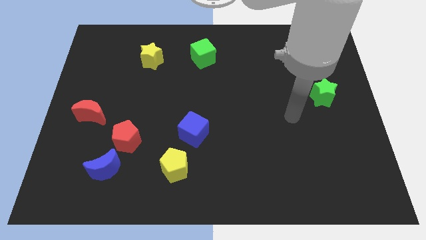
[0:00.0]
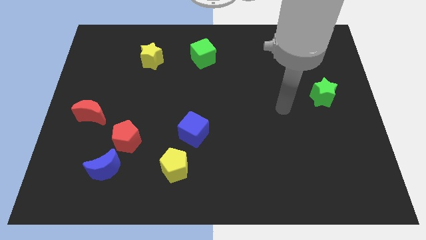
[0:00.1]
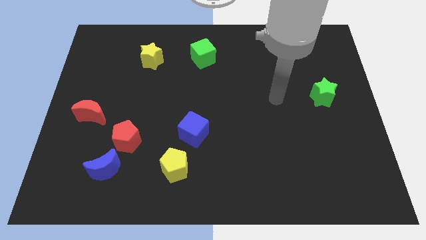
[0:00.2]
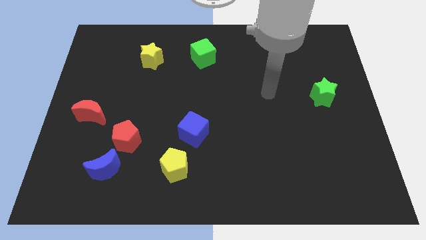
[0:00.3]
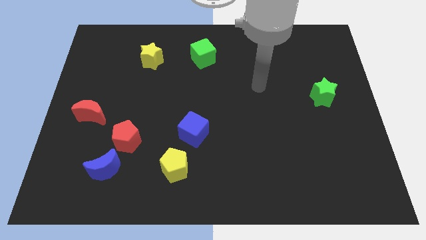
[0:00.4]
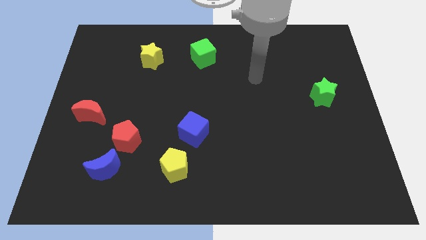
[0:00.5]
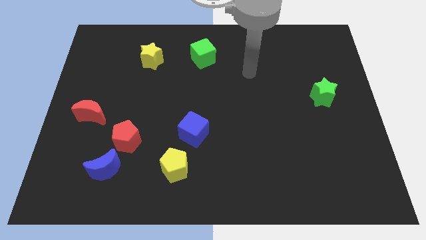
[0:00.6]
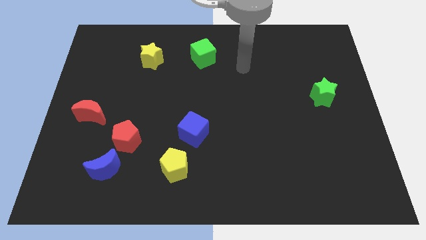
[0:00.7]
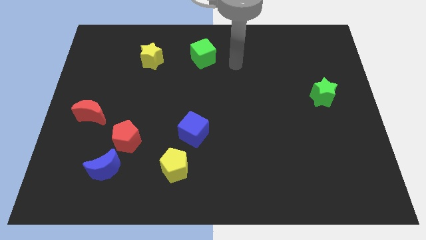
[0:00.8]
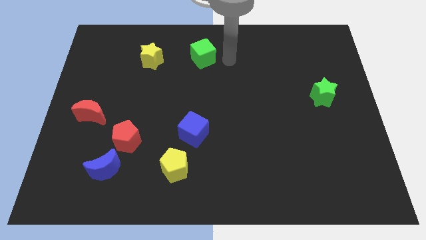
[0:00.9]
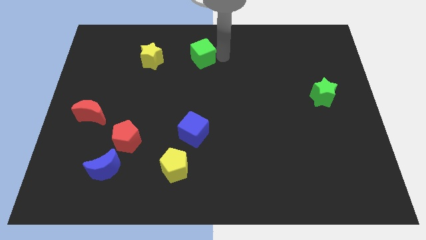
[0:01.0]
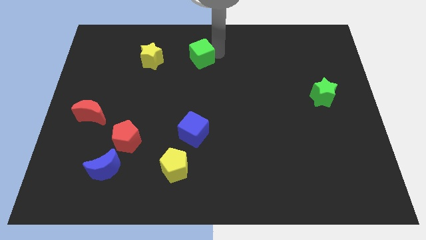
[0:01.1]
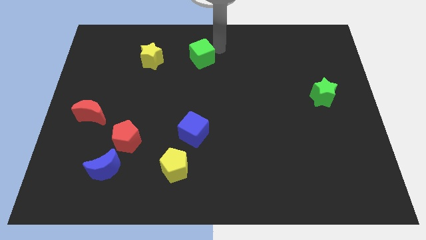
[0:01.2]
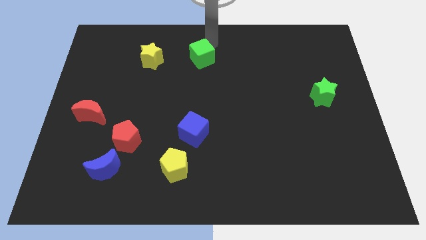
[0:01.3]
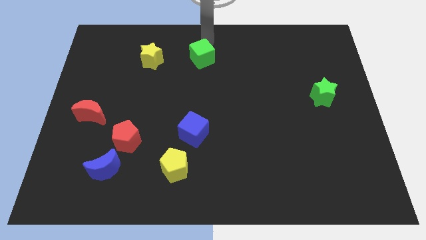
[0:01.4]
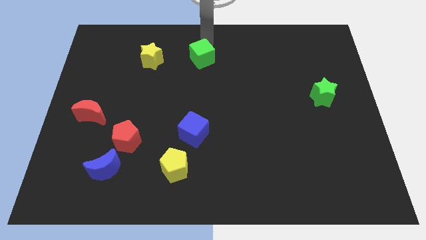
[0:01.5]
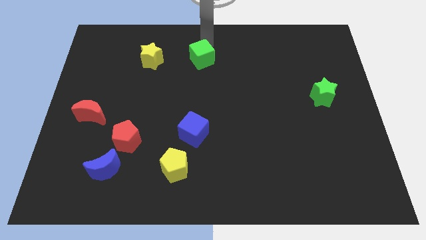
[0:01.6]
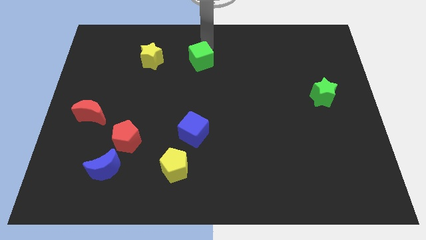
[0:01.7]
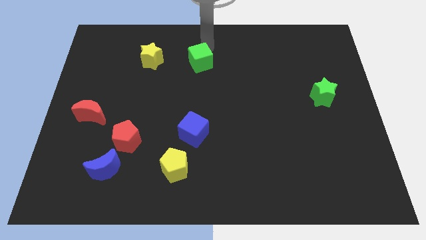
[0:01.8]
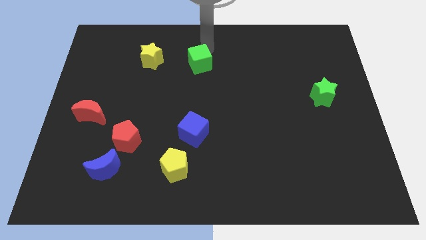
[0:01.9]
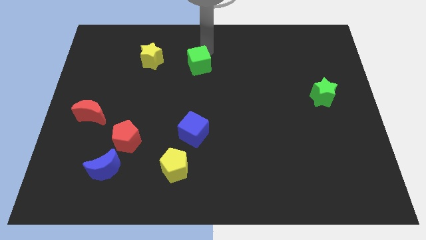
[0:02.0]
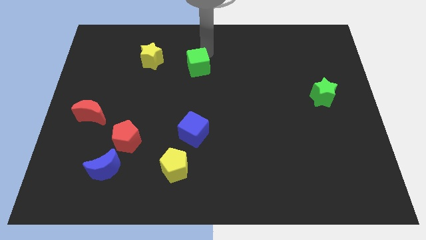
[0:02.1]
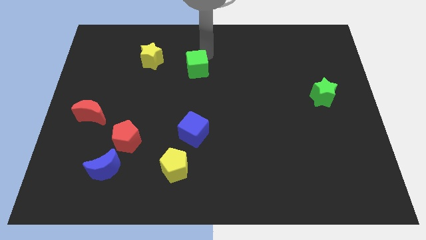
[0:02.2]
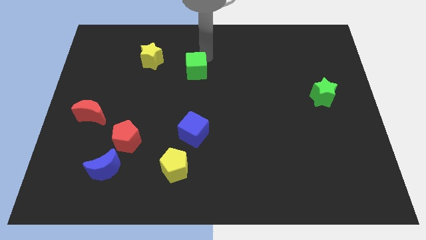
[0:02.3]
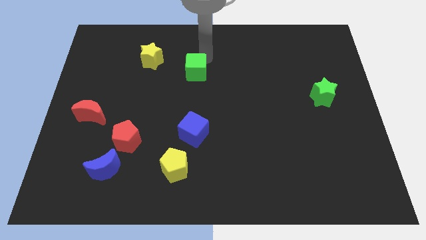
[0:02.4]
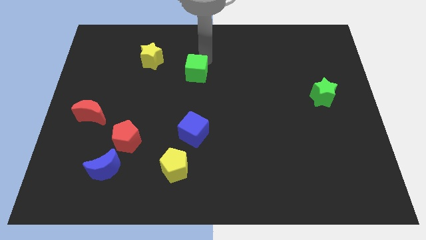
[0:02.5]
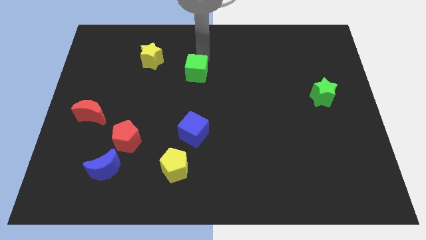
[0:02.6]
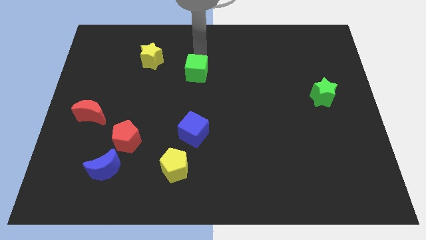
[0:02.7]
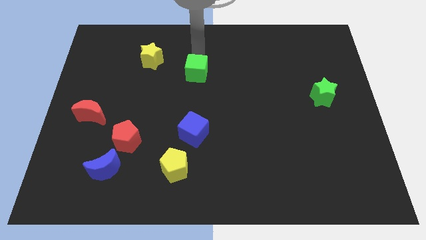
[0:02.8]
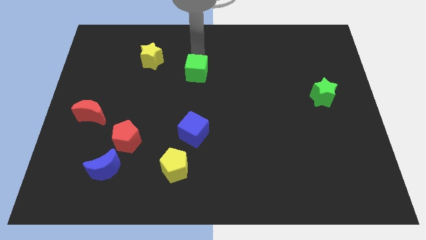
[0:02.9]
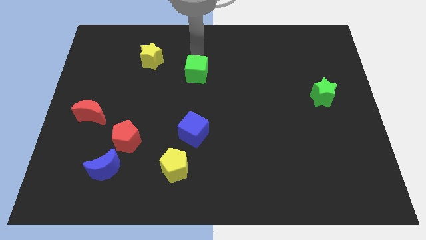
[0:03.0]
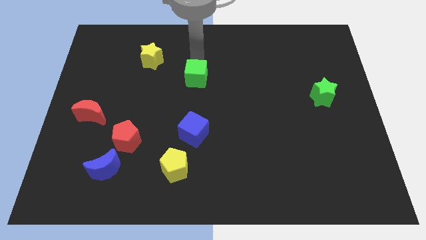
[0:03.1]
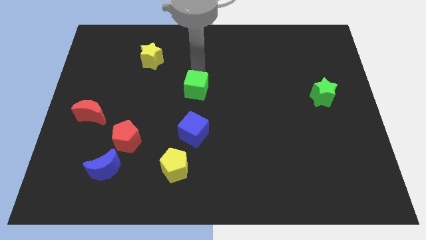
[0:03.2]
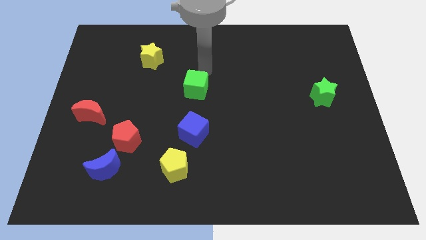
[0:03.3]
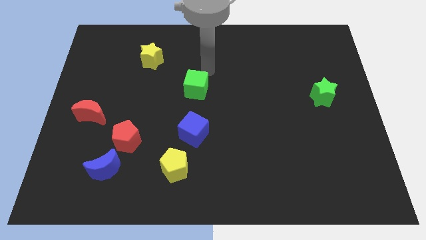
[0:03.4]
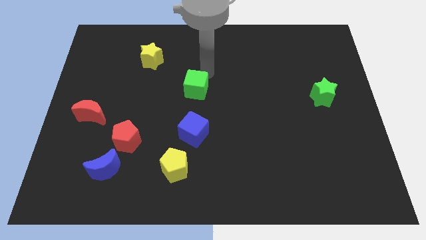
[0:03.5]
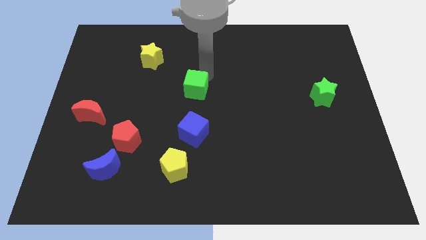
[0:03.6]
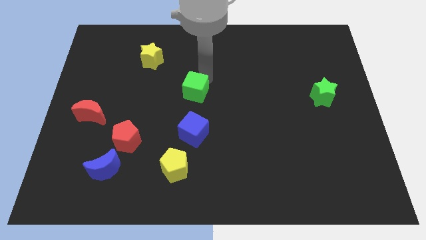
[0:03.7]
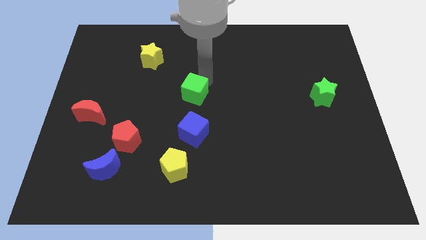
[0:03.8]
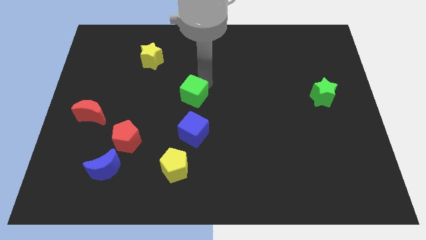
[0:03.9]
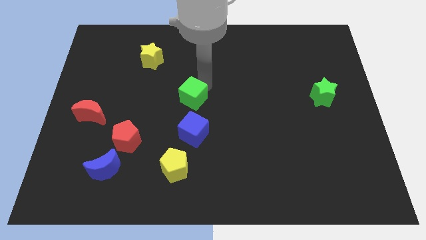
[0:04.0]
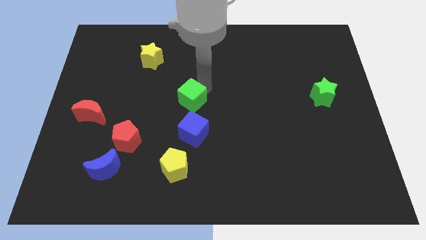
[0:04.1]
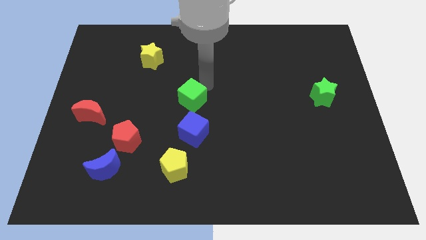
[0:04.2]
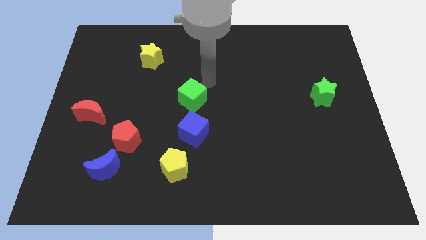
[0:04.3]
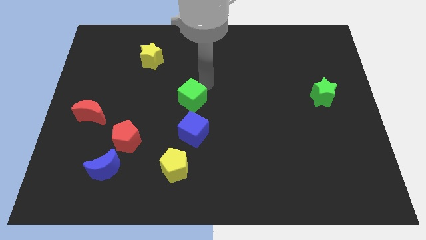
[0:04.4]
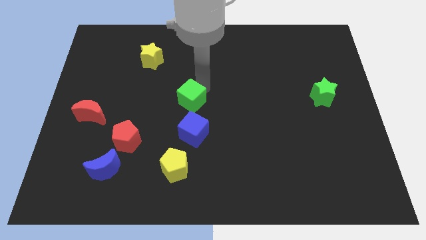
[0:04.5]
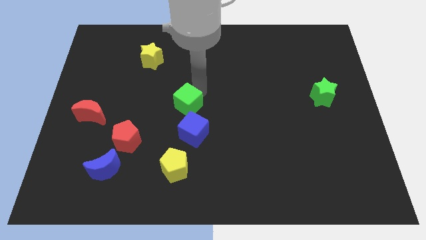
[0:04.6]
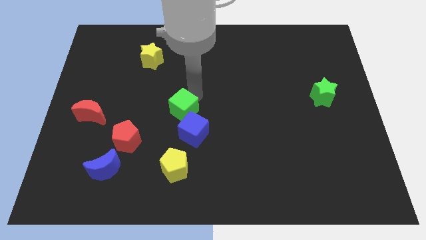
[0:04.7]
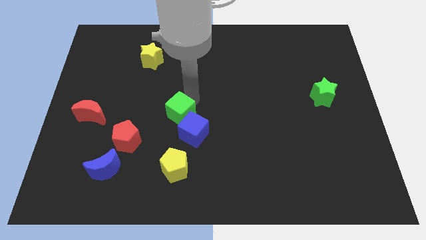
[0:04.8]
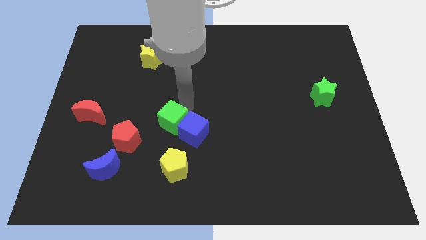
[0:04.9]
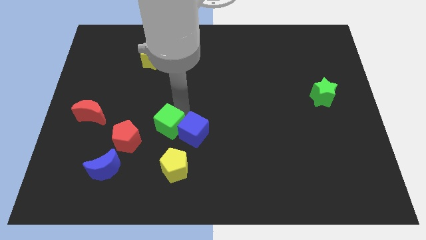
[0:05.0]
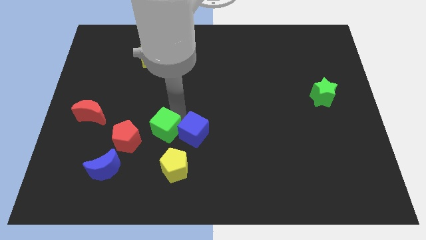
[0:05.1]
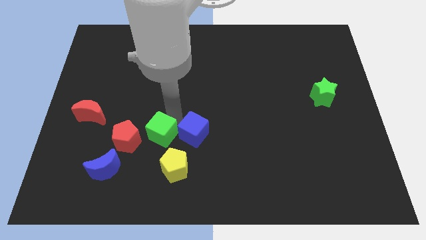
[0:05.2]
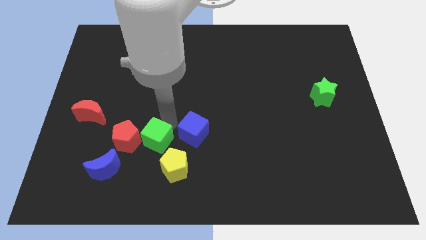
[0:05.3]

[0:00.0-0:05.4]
put the green cube to the bottom right of the red pentagon

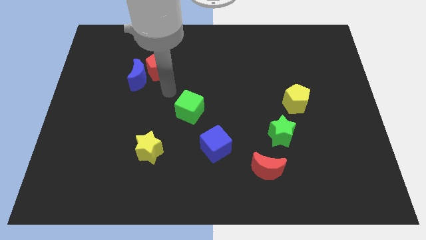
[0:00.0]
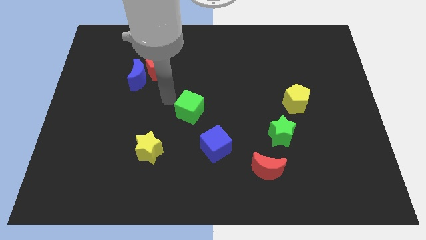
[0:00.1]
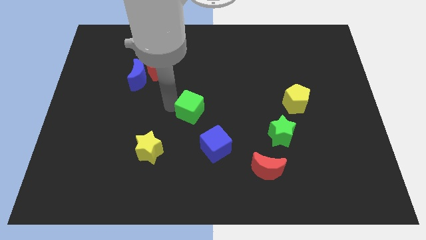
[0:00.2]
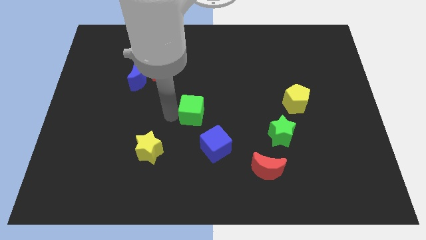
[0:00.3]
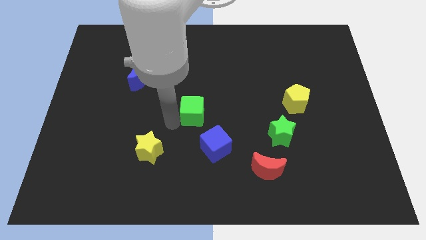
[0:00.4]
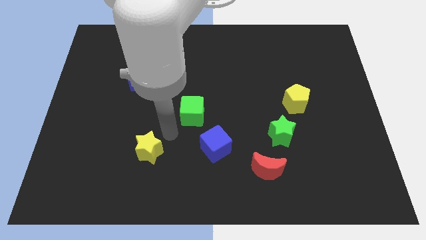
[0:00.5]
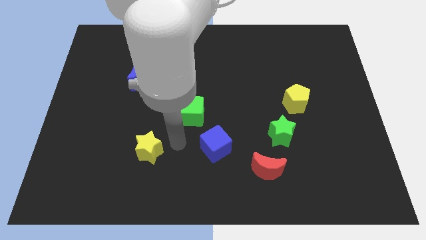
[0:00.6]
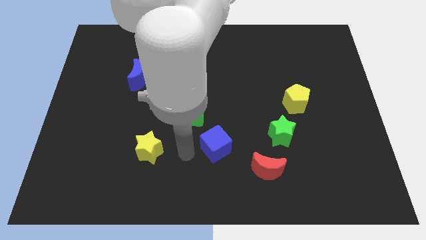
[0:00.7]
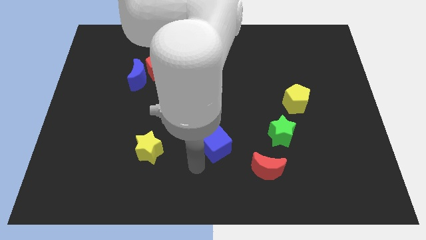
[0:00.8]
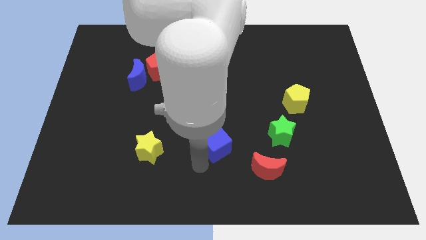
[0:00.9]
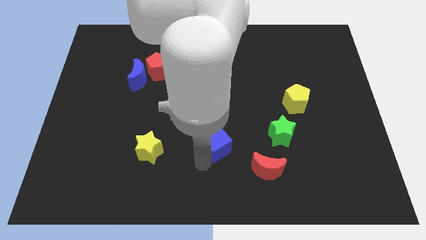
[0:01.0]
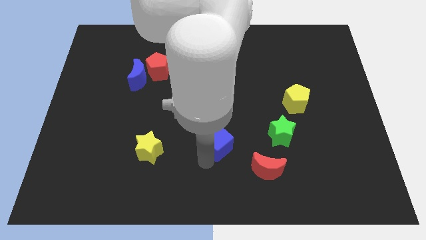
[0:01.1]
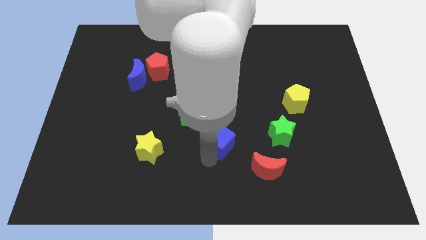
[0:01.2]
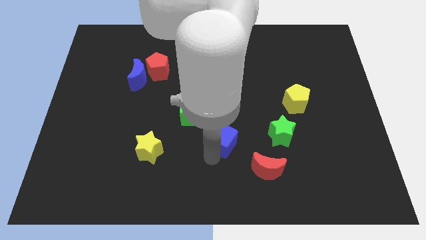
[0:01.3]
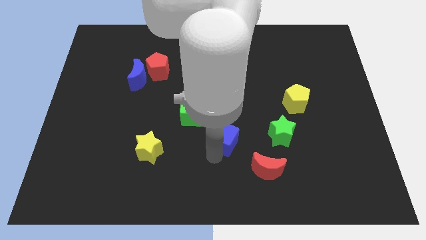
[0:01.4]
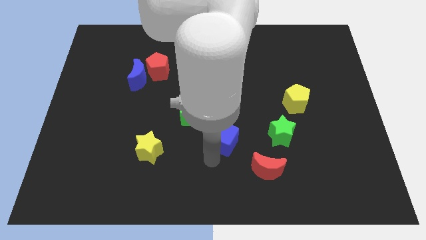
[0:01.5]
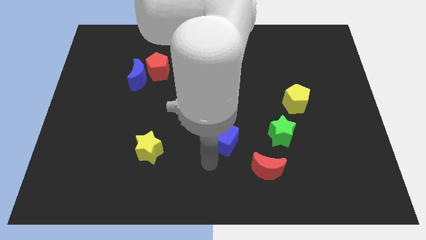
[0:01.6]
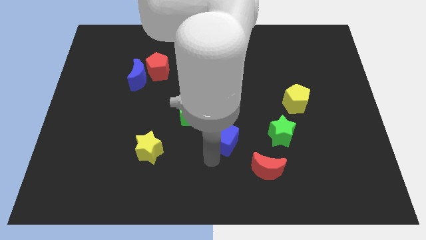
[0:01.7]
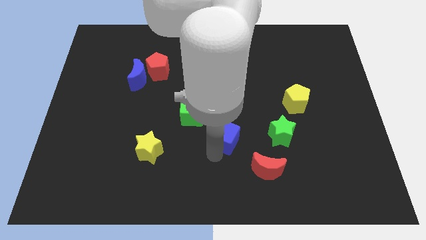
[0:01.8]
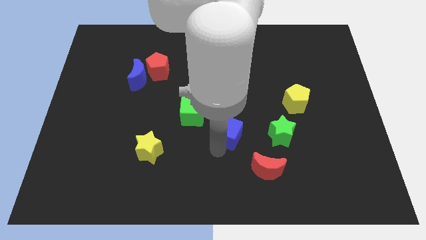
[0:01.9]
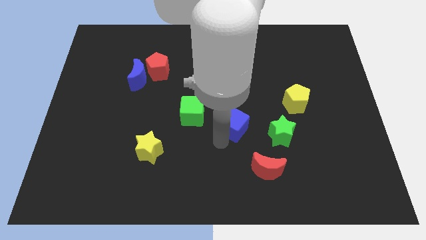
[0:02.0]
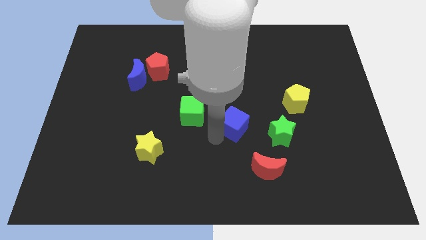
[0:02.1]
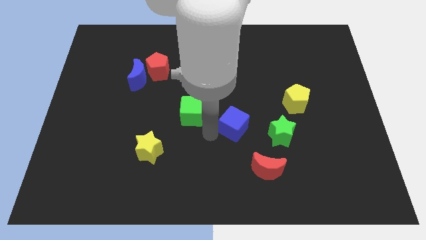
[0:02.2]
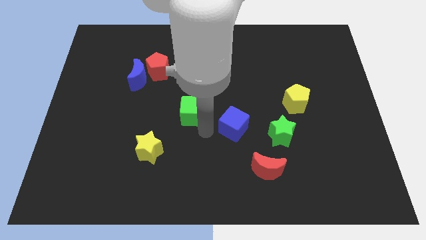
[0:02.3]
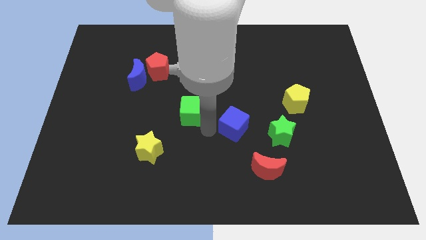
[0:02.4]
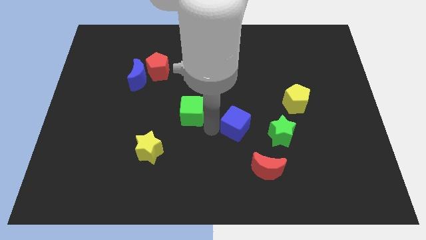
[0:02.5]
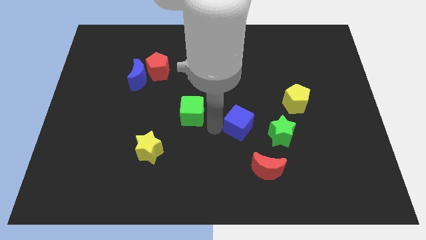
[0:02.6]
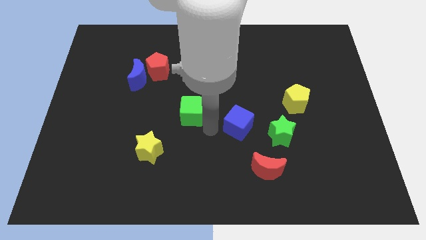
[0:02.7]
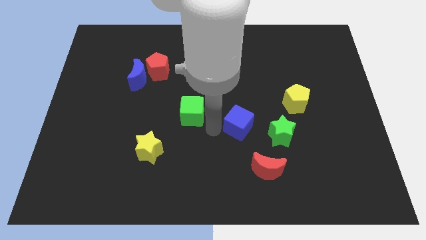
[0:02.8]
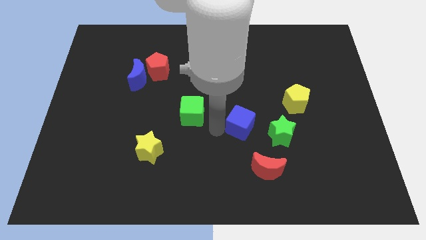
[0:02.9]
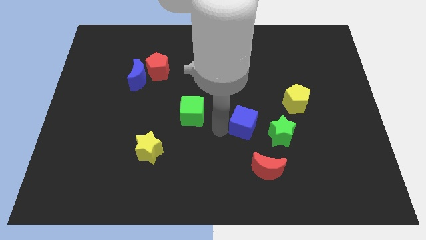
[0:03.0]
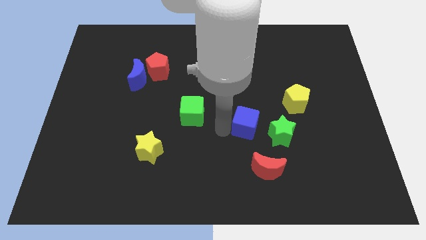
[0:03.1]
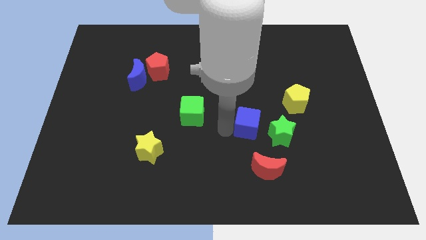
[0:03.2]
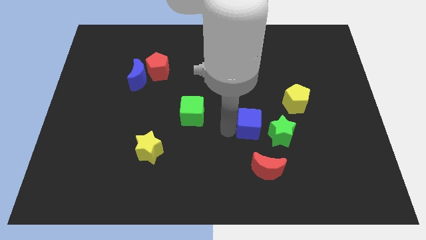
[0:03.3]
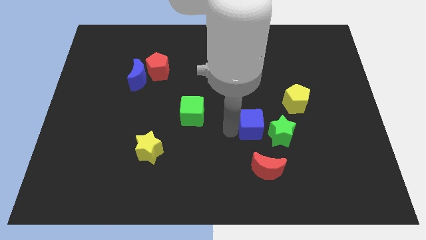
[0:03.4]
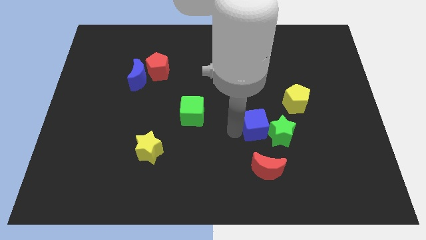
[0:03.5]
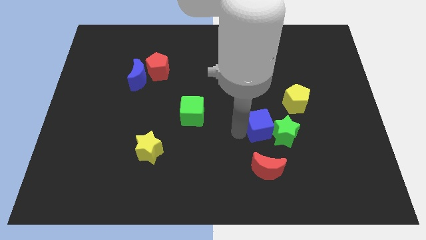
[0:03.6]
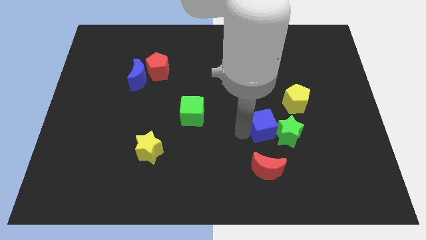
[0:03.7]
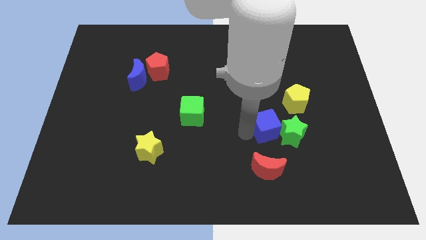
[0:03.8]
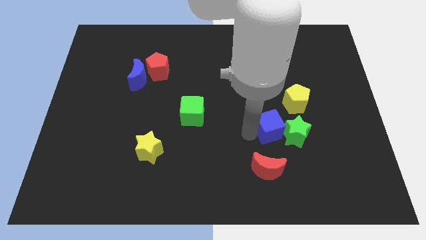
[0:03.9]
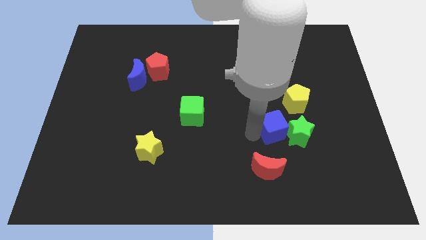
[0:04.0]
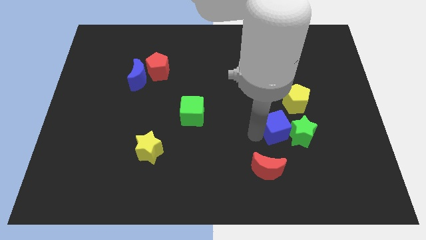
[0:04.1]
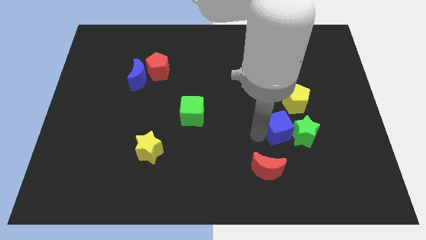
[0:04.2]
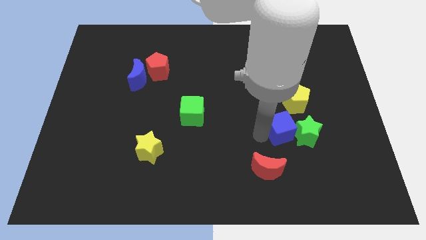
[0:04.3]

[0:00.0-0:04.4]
move the blue cube to the bottom of the yellow pentagon
